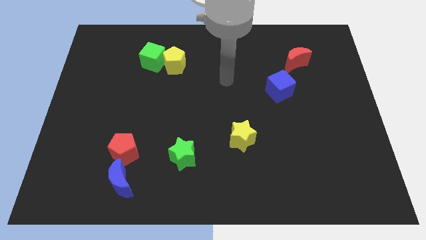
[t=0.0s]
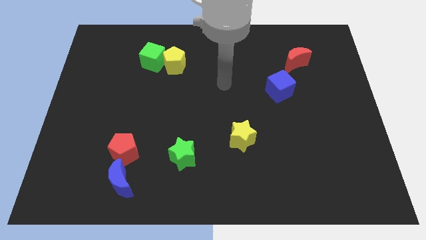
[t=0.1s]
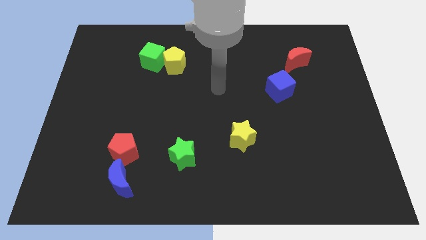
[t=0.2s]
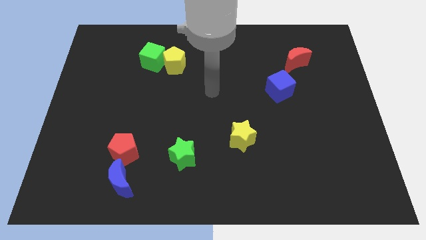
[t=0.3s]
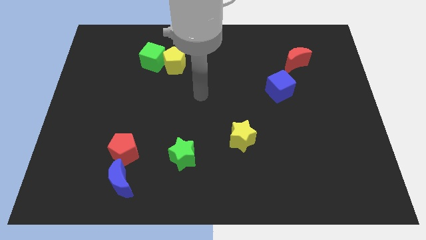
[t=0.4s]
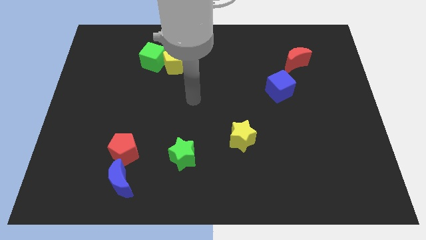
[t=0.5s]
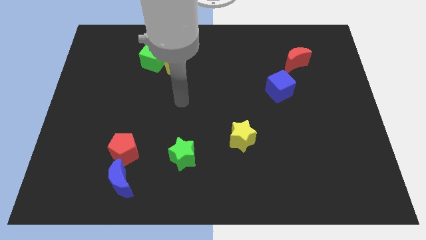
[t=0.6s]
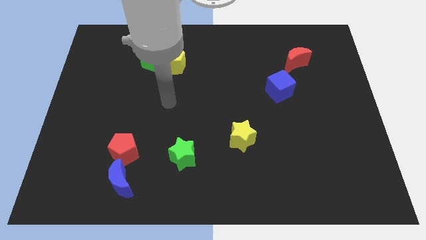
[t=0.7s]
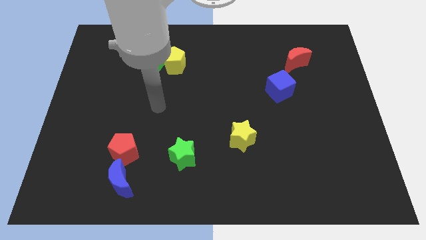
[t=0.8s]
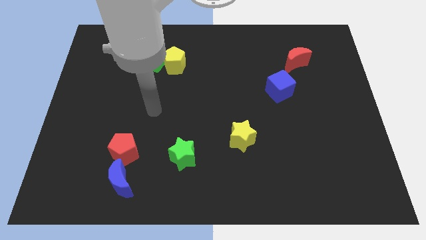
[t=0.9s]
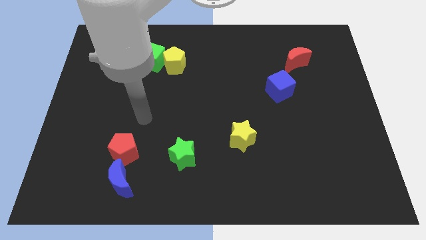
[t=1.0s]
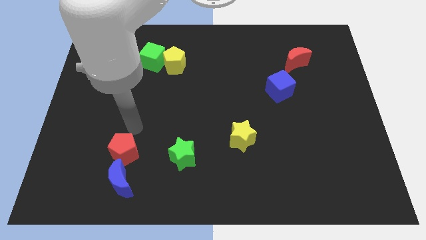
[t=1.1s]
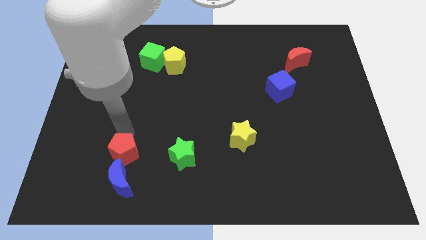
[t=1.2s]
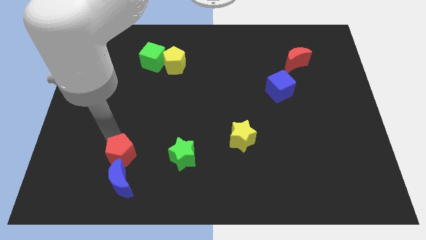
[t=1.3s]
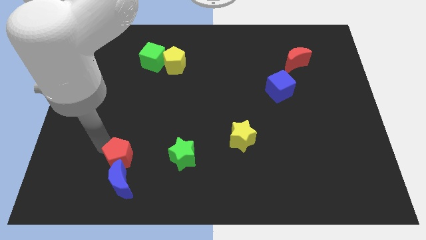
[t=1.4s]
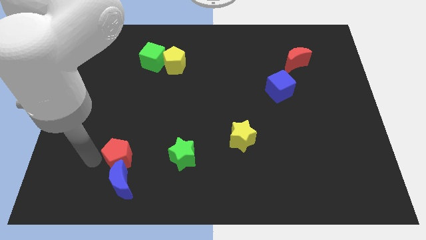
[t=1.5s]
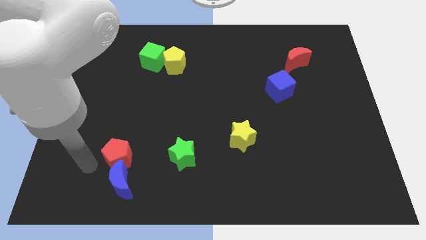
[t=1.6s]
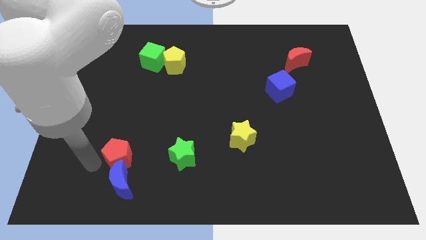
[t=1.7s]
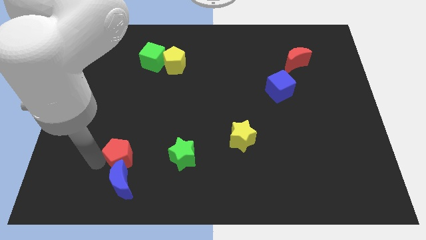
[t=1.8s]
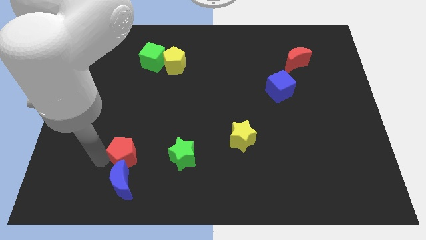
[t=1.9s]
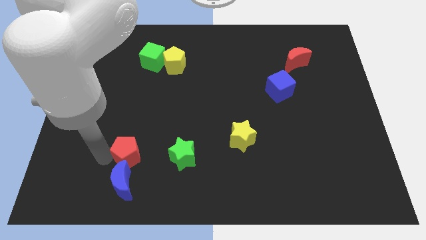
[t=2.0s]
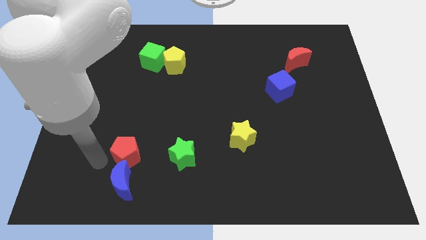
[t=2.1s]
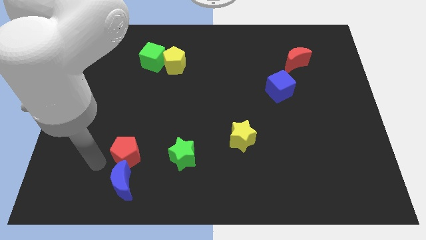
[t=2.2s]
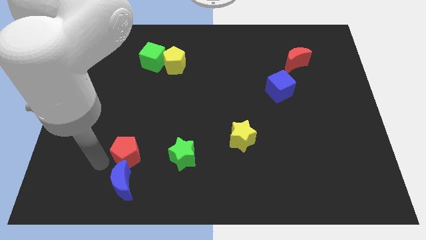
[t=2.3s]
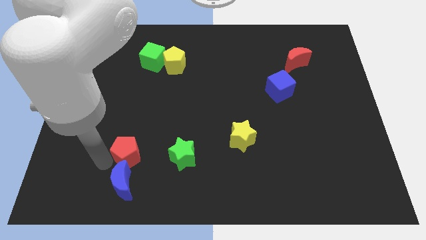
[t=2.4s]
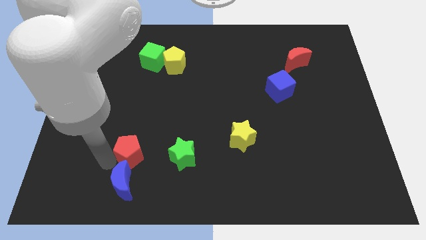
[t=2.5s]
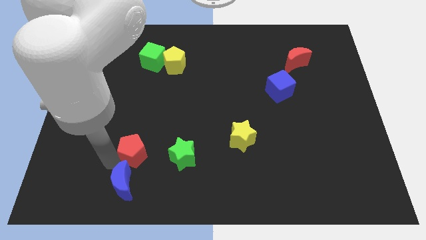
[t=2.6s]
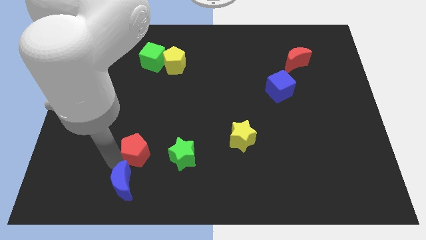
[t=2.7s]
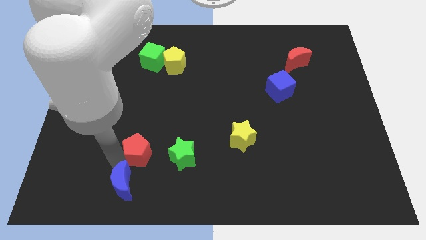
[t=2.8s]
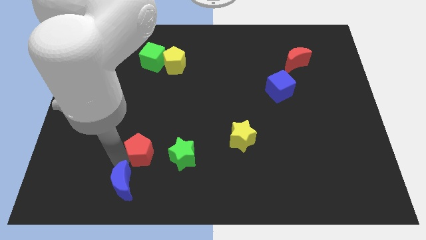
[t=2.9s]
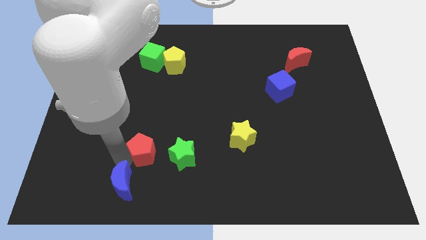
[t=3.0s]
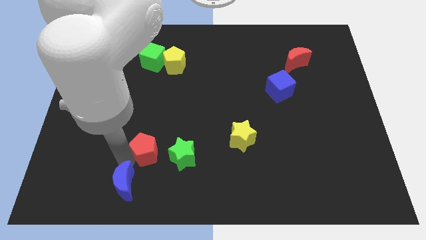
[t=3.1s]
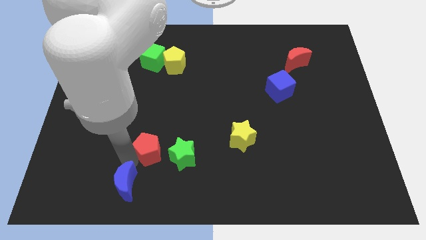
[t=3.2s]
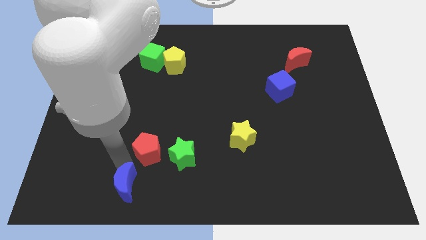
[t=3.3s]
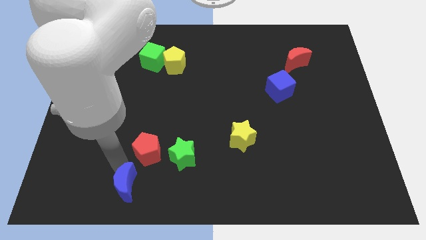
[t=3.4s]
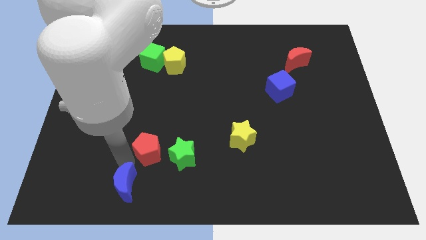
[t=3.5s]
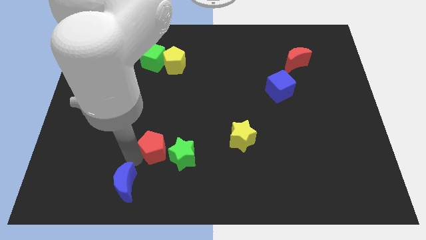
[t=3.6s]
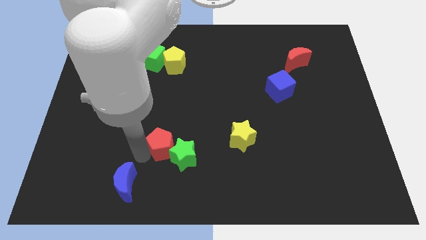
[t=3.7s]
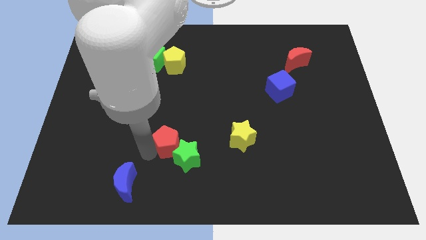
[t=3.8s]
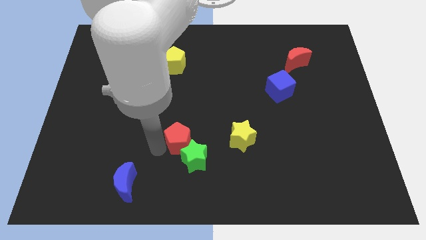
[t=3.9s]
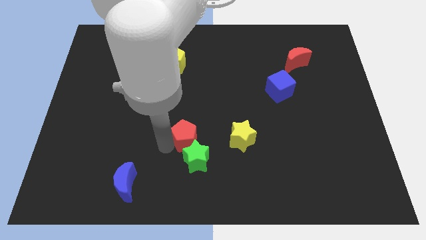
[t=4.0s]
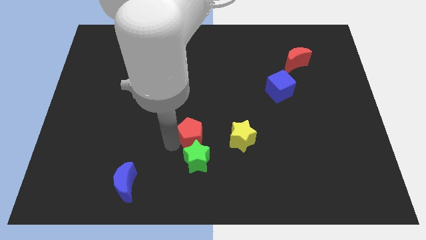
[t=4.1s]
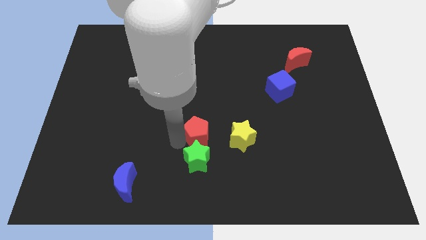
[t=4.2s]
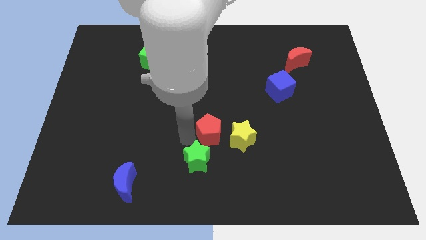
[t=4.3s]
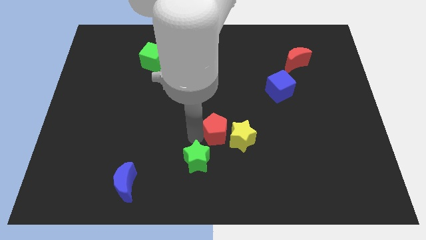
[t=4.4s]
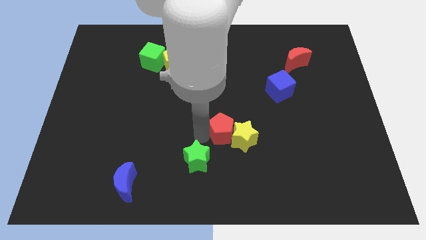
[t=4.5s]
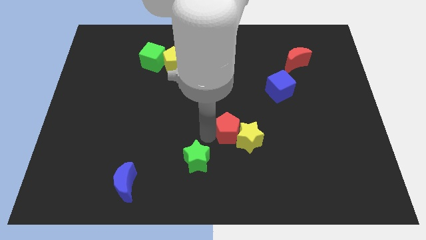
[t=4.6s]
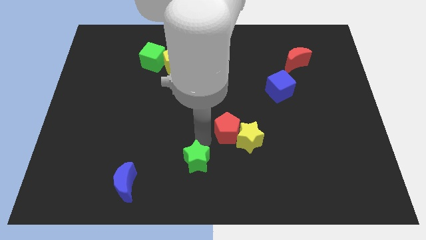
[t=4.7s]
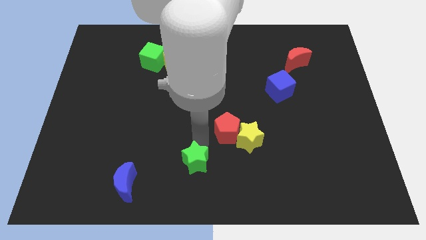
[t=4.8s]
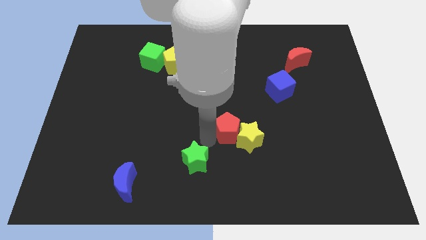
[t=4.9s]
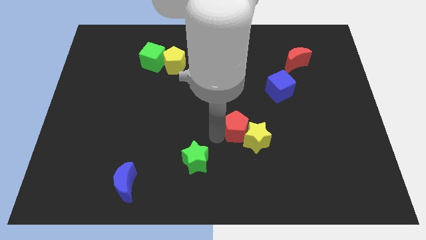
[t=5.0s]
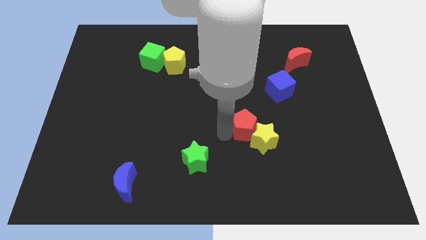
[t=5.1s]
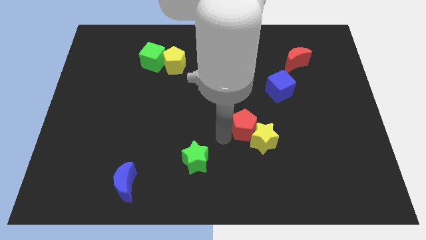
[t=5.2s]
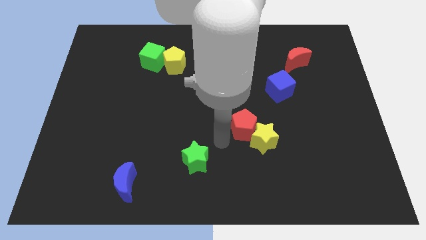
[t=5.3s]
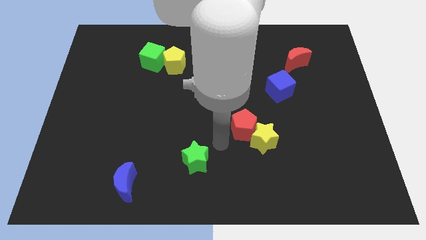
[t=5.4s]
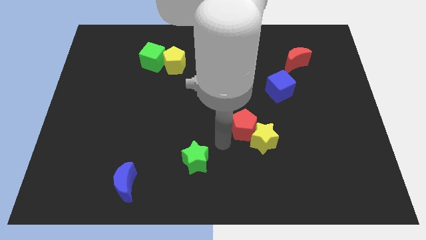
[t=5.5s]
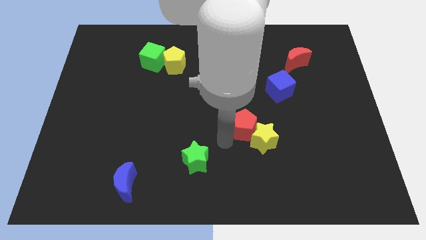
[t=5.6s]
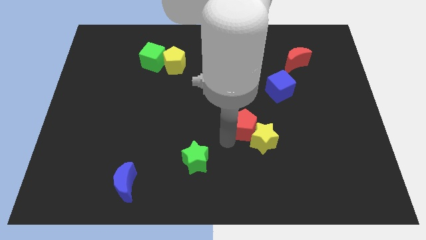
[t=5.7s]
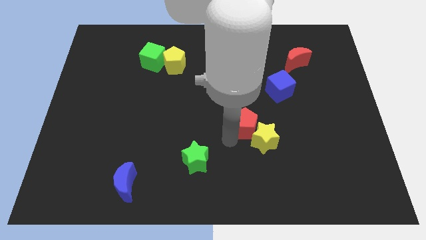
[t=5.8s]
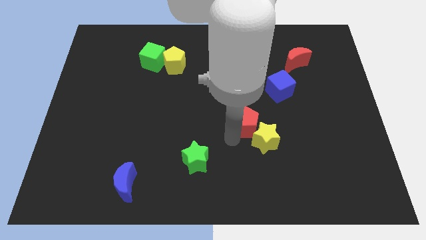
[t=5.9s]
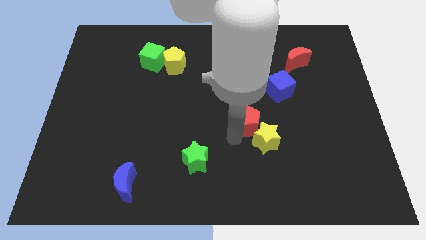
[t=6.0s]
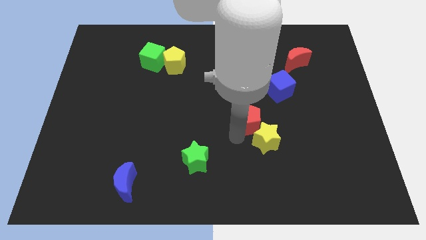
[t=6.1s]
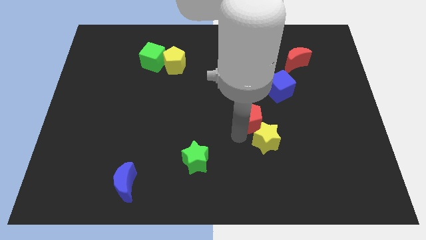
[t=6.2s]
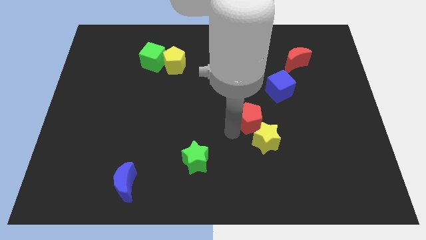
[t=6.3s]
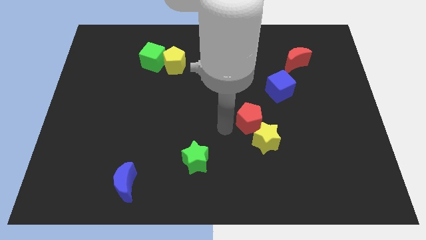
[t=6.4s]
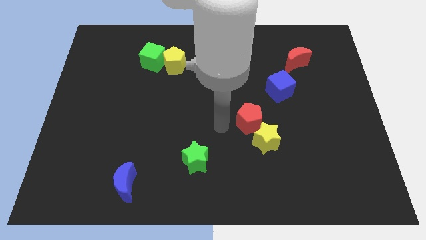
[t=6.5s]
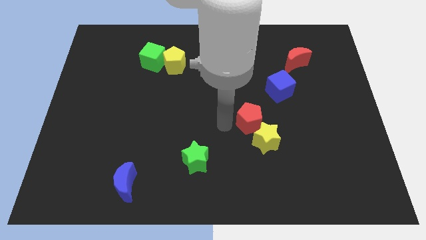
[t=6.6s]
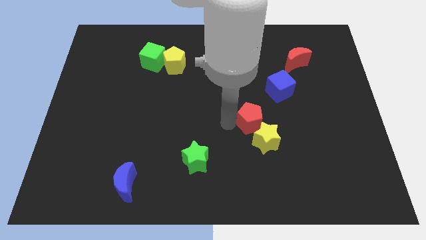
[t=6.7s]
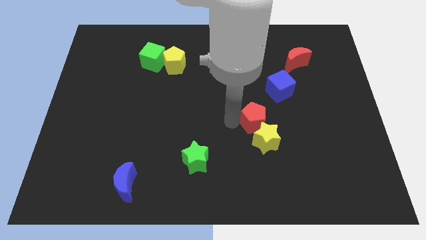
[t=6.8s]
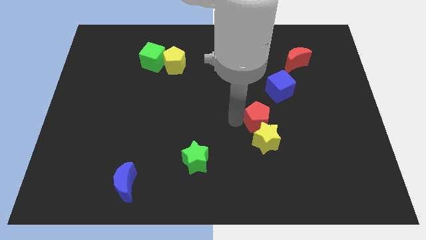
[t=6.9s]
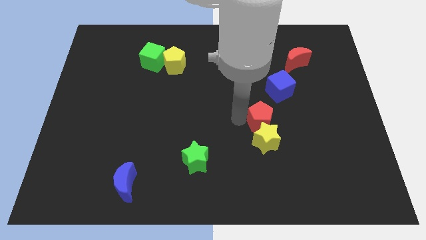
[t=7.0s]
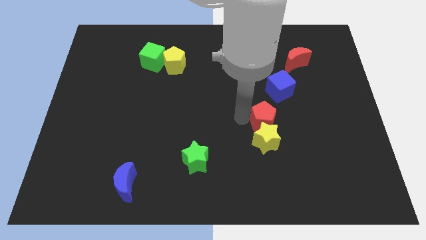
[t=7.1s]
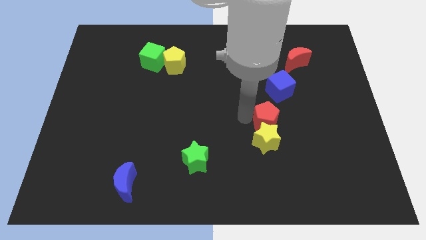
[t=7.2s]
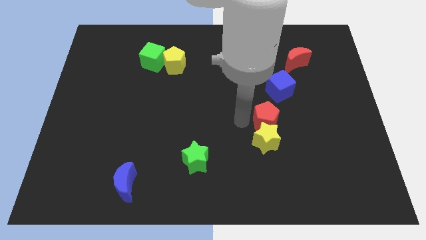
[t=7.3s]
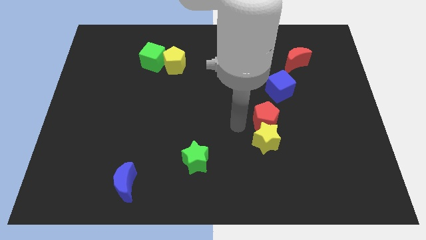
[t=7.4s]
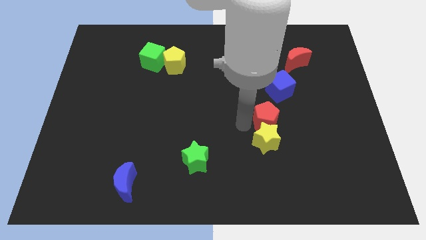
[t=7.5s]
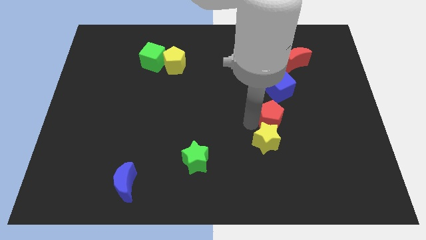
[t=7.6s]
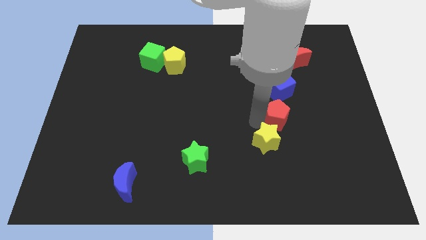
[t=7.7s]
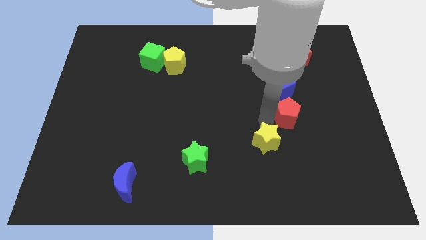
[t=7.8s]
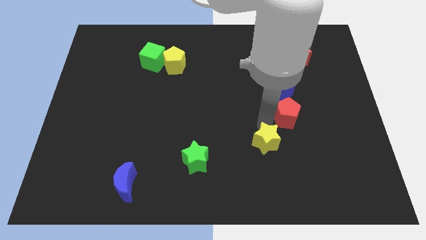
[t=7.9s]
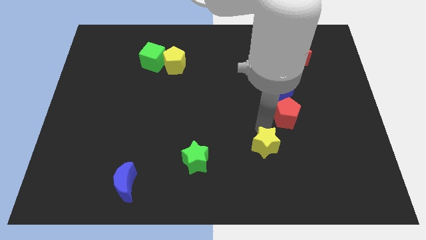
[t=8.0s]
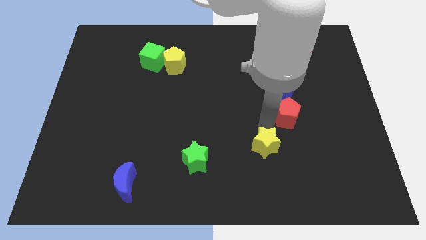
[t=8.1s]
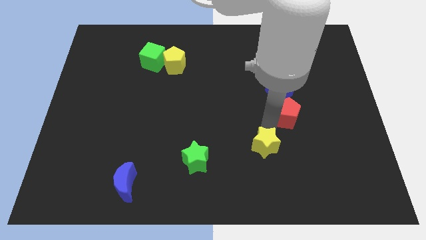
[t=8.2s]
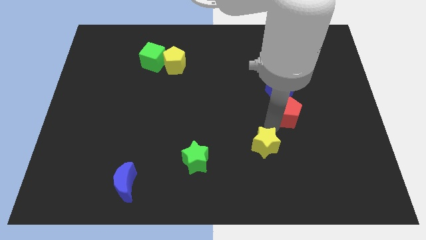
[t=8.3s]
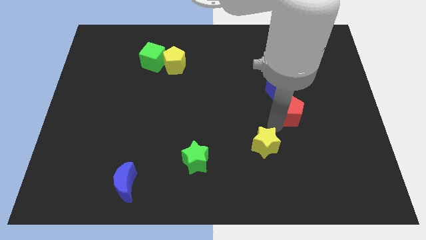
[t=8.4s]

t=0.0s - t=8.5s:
move the red pentagon to the bottom right of the blue cube
